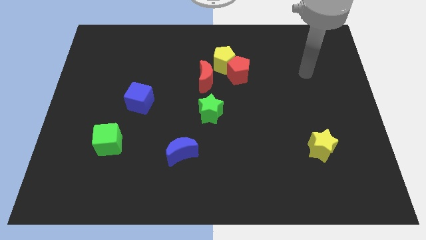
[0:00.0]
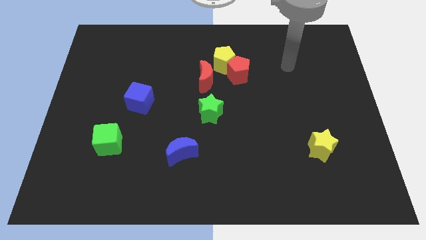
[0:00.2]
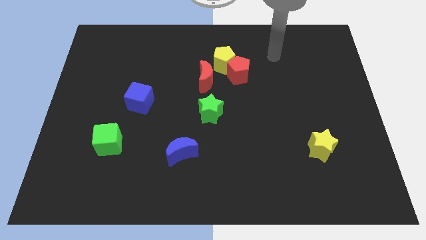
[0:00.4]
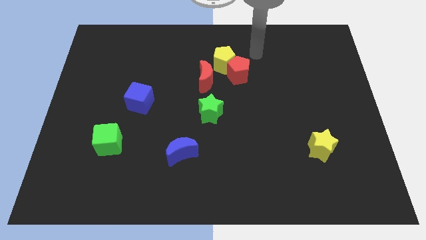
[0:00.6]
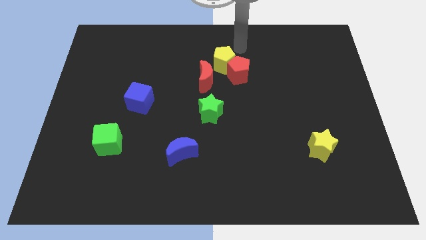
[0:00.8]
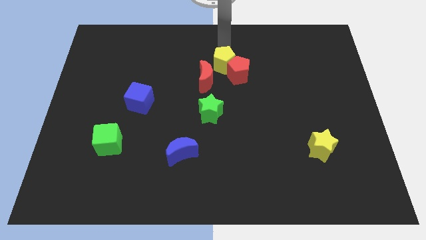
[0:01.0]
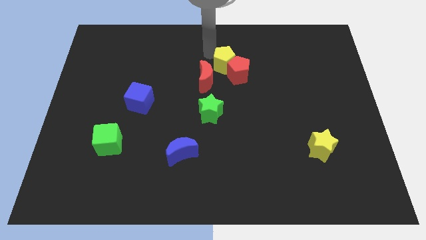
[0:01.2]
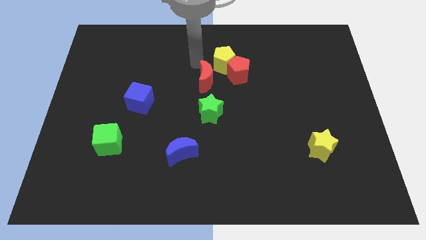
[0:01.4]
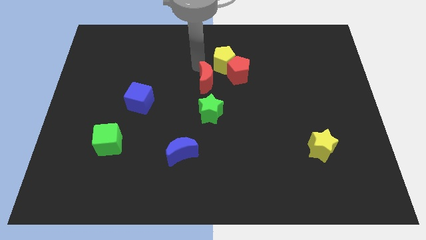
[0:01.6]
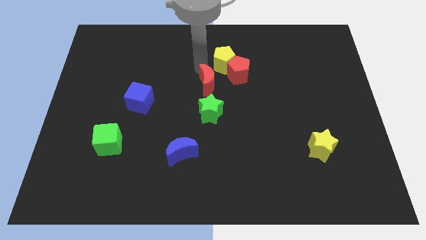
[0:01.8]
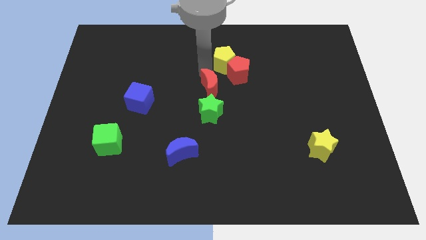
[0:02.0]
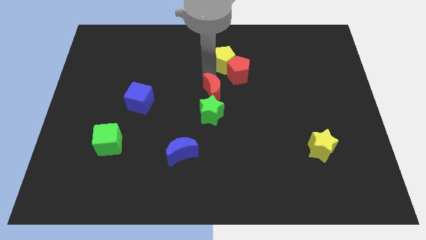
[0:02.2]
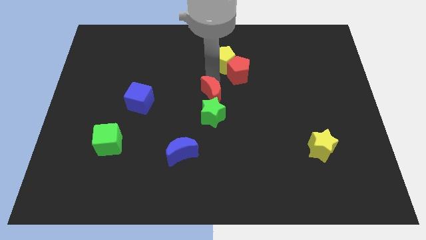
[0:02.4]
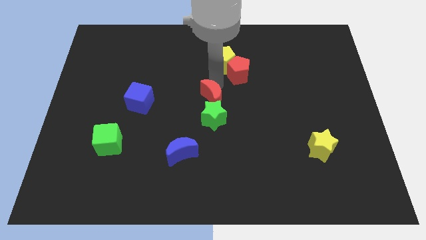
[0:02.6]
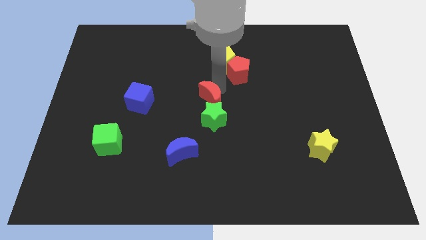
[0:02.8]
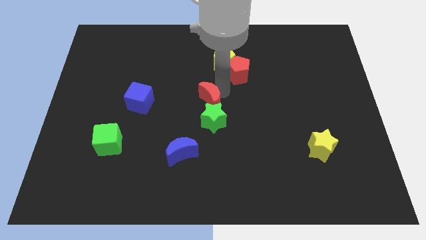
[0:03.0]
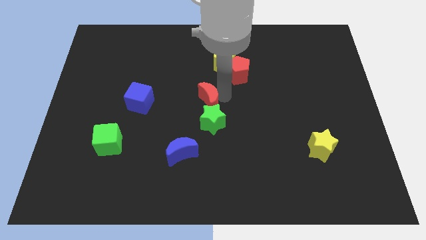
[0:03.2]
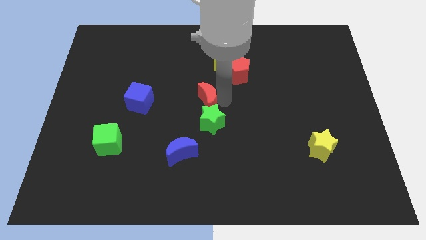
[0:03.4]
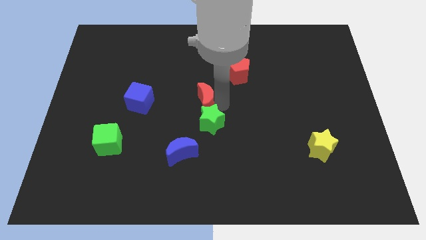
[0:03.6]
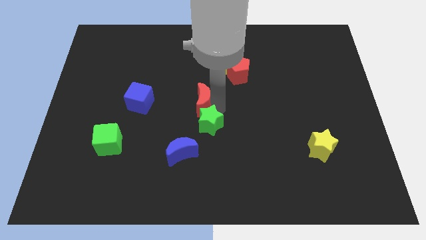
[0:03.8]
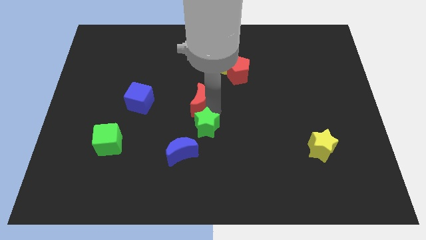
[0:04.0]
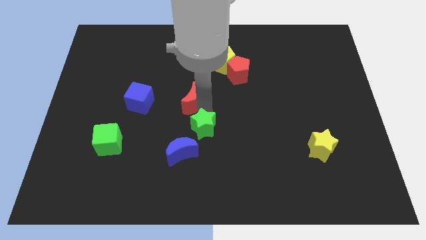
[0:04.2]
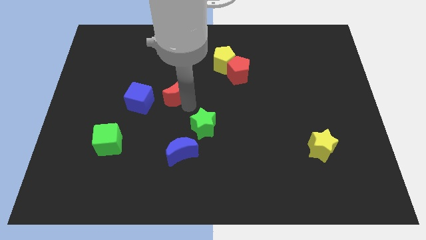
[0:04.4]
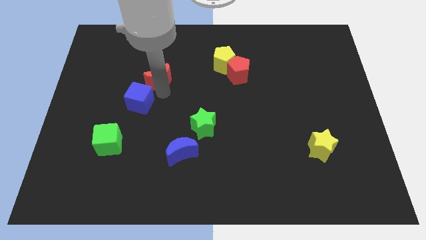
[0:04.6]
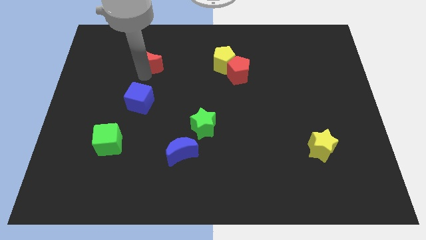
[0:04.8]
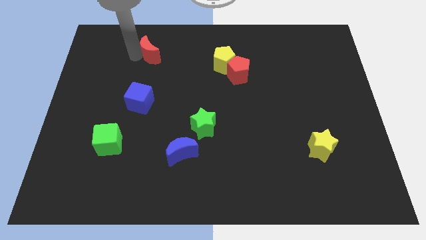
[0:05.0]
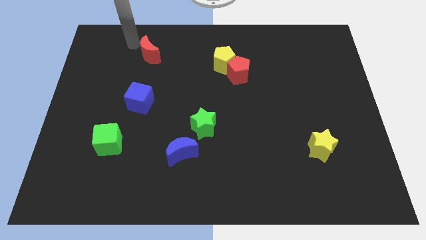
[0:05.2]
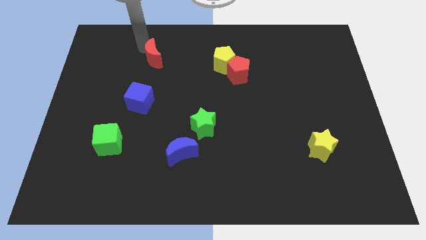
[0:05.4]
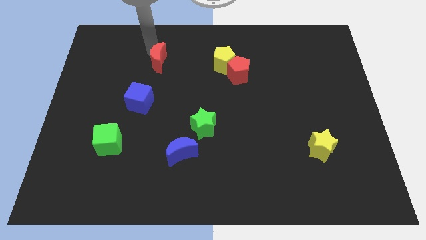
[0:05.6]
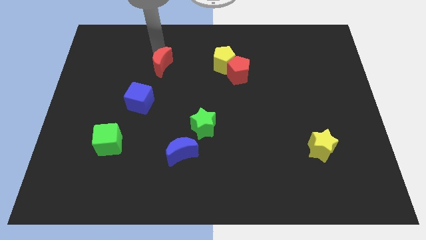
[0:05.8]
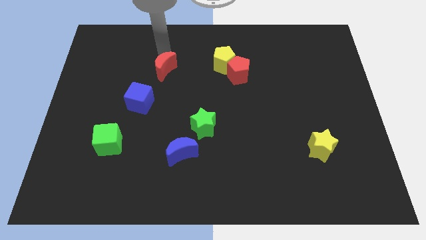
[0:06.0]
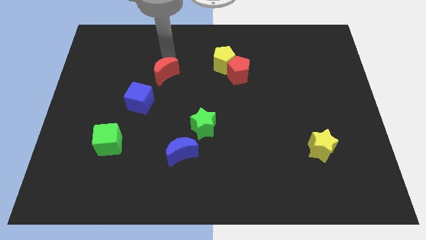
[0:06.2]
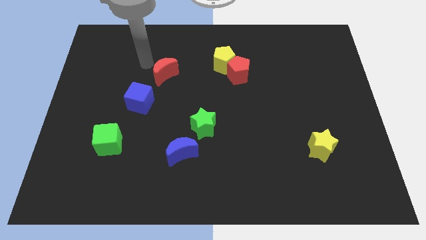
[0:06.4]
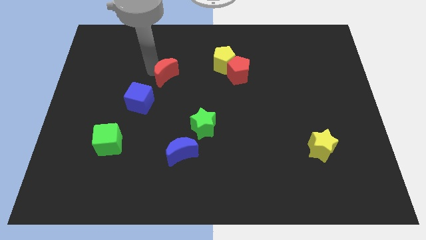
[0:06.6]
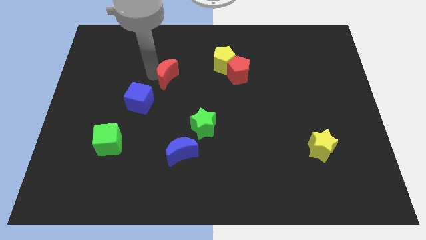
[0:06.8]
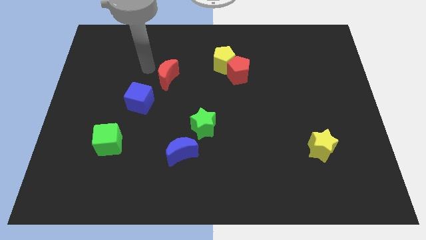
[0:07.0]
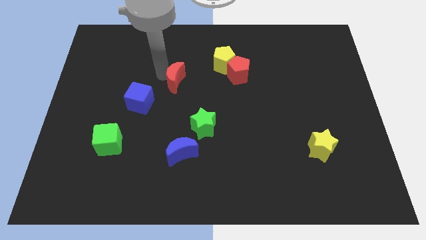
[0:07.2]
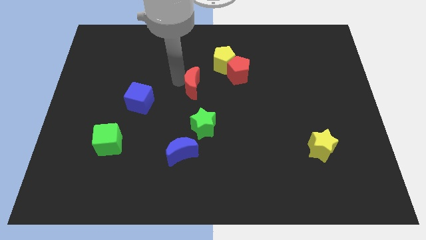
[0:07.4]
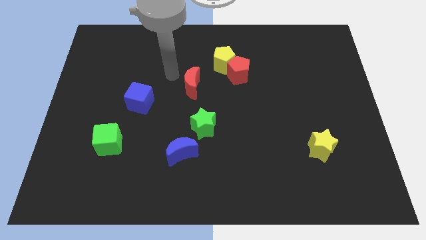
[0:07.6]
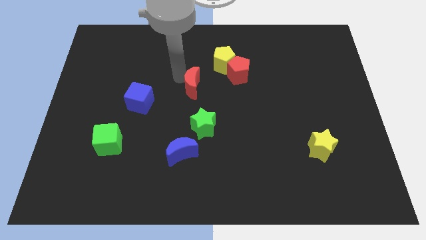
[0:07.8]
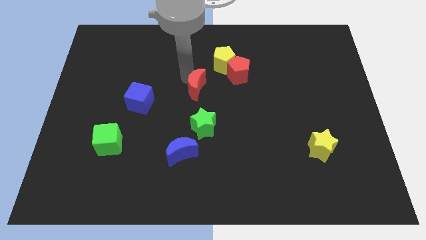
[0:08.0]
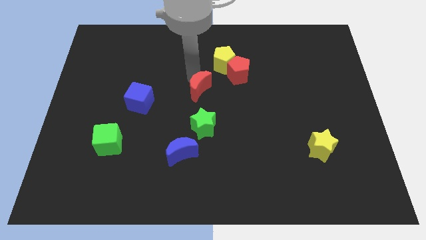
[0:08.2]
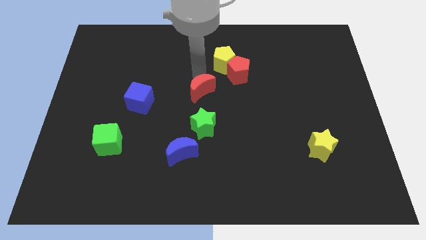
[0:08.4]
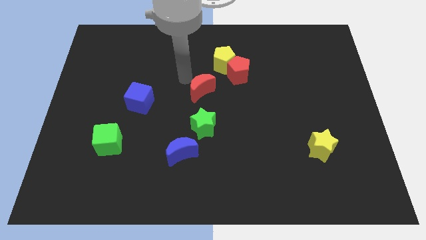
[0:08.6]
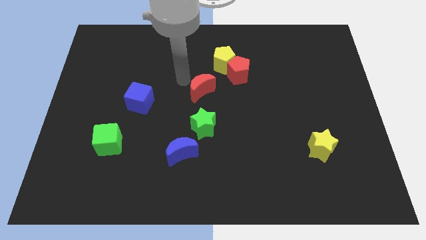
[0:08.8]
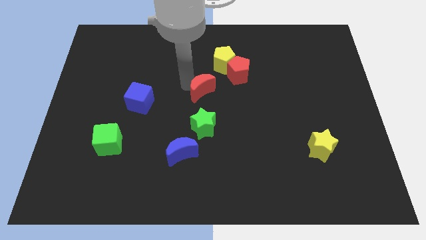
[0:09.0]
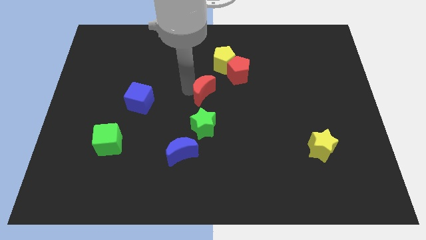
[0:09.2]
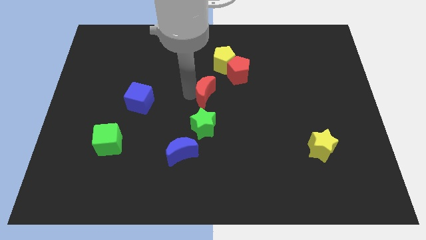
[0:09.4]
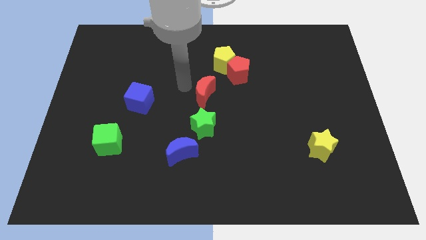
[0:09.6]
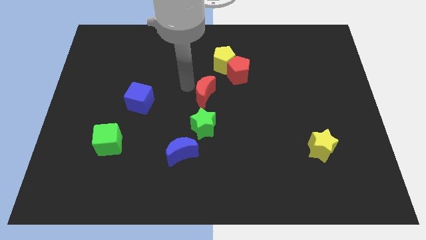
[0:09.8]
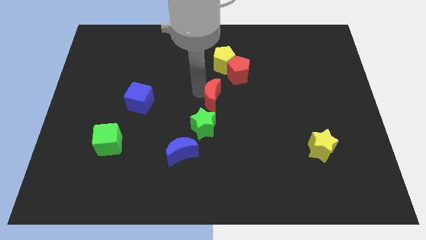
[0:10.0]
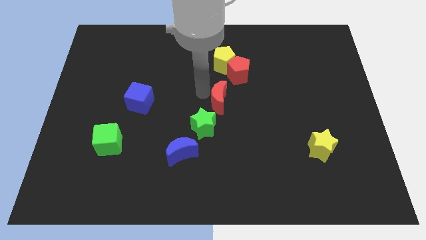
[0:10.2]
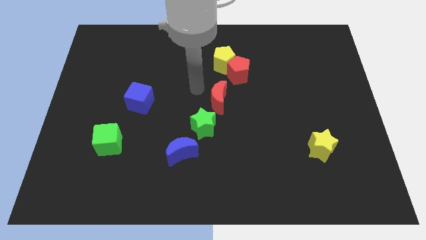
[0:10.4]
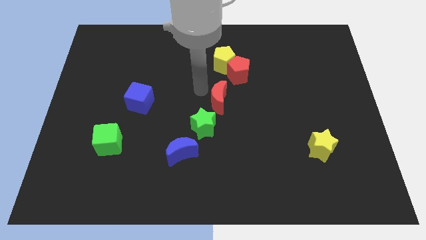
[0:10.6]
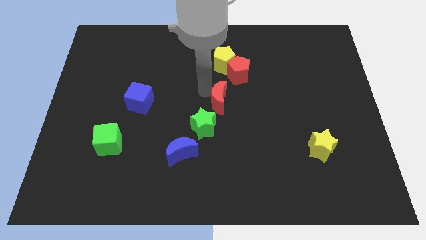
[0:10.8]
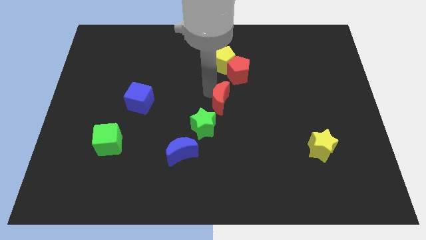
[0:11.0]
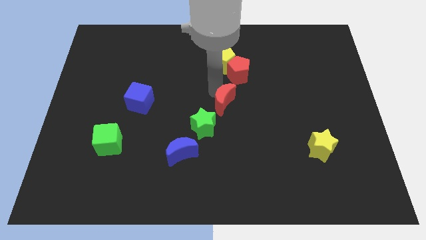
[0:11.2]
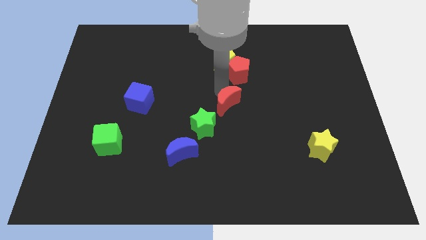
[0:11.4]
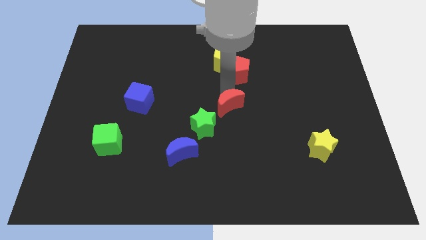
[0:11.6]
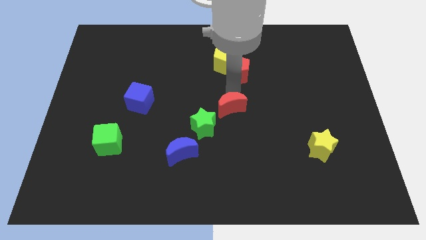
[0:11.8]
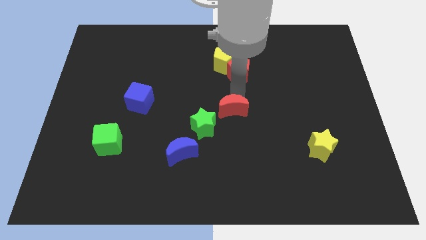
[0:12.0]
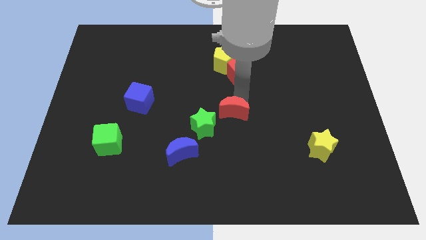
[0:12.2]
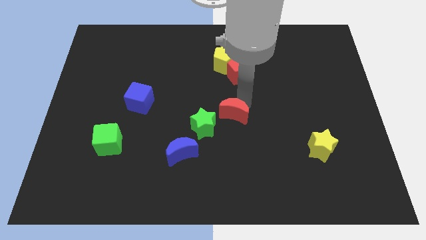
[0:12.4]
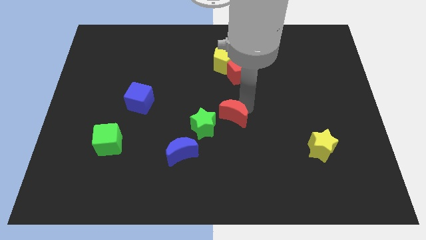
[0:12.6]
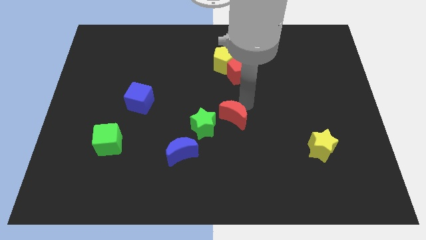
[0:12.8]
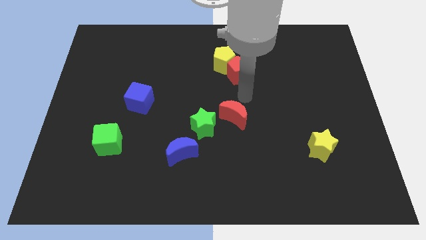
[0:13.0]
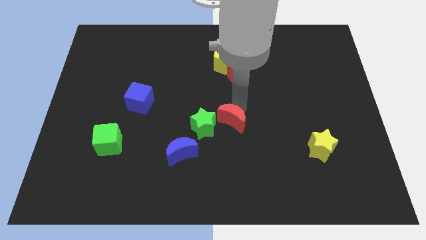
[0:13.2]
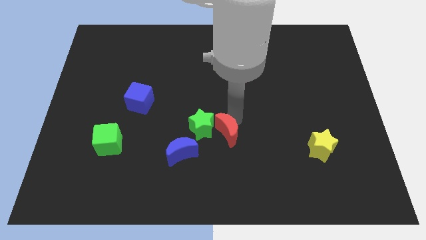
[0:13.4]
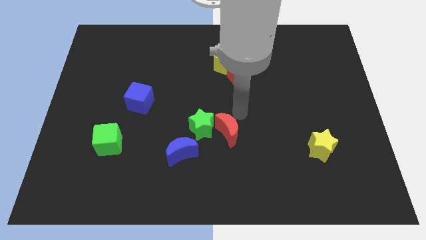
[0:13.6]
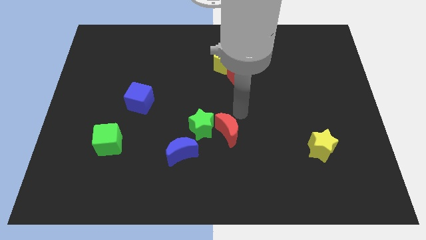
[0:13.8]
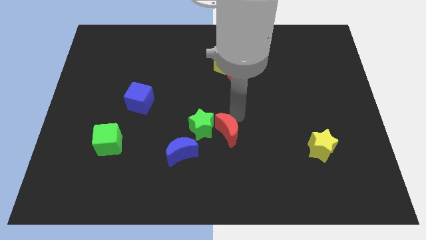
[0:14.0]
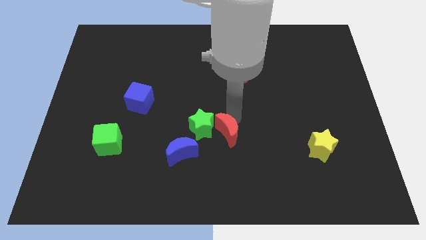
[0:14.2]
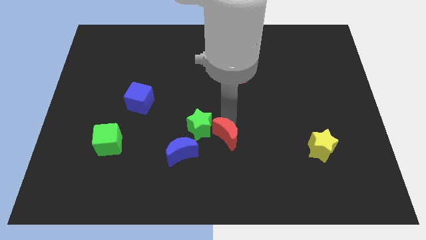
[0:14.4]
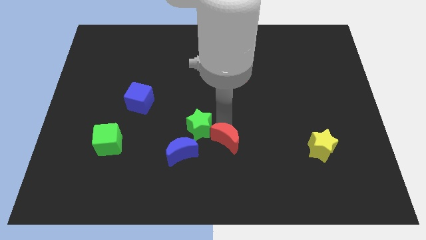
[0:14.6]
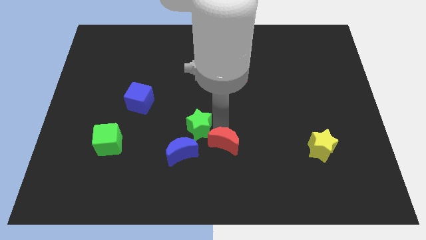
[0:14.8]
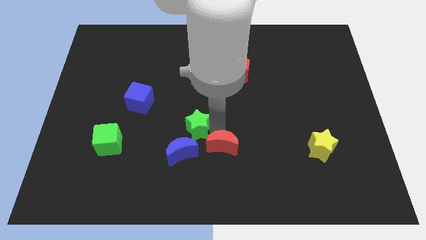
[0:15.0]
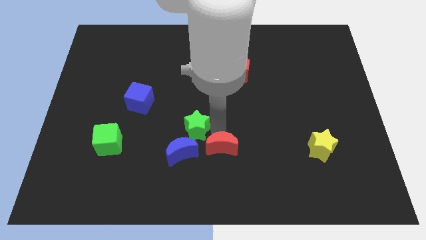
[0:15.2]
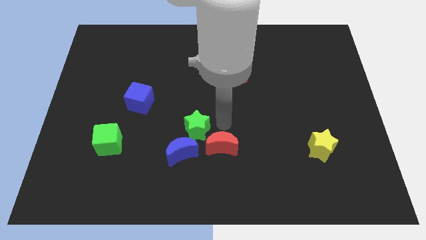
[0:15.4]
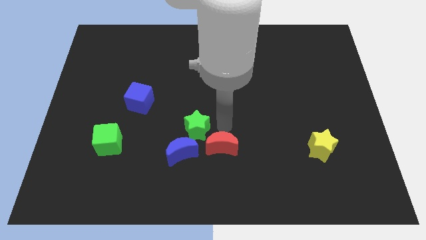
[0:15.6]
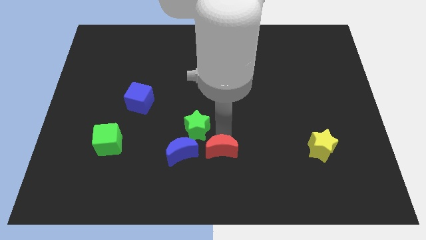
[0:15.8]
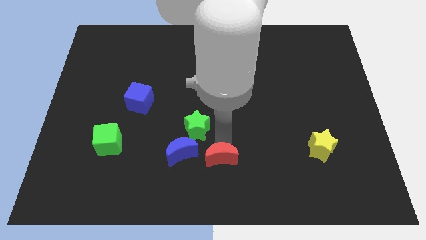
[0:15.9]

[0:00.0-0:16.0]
push the red moon to the bottom
